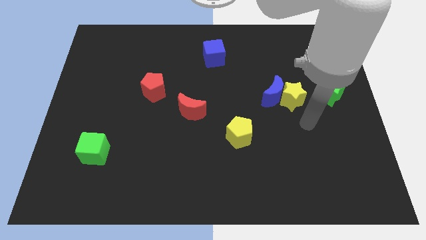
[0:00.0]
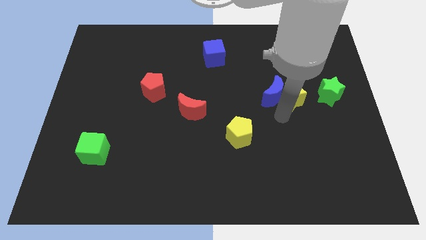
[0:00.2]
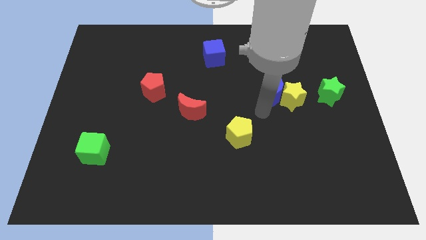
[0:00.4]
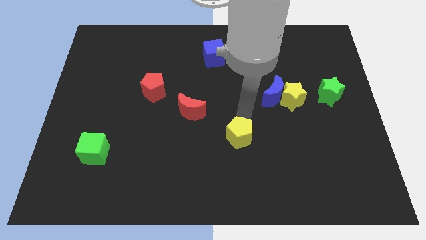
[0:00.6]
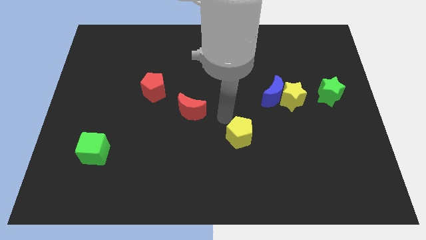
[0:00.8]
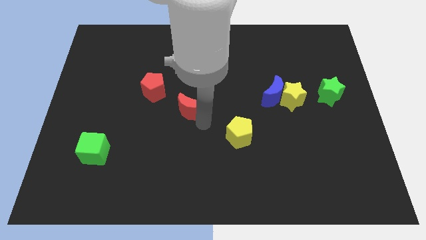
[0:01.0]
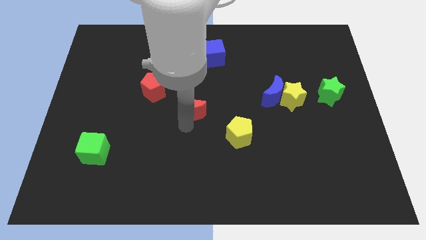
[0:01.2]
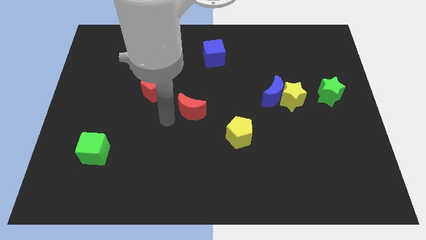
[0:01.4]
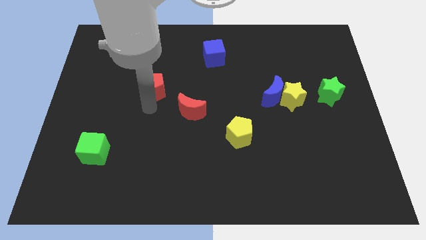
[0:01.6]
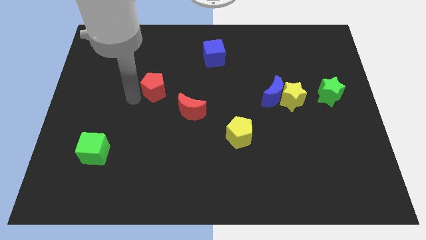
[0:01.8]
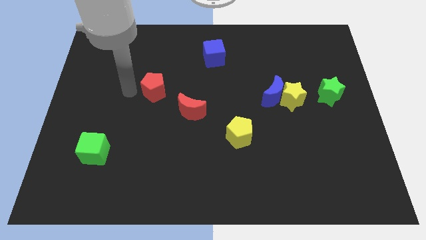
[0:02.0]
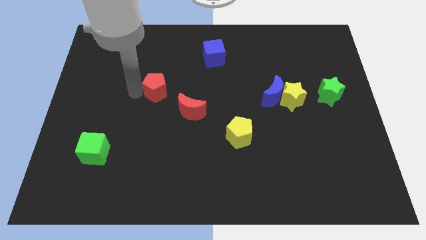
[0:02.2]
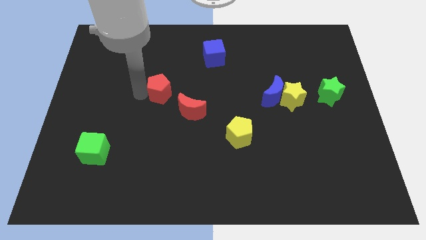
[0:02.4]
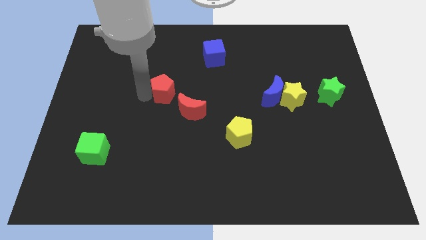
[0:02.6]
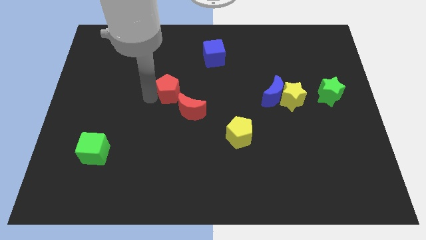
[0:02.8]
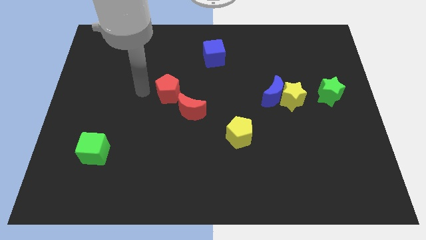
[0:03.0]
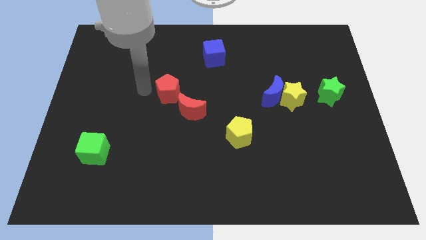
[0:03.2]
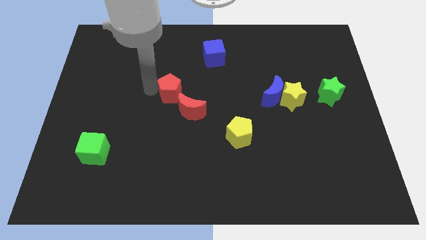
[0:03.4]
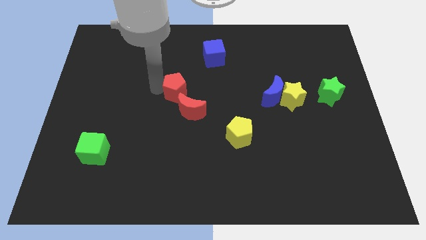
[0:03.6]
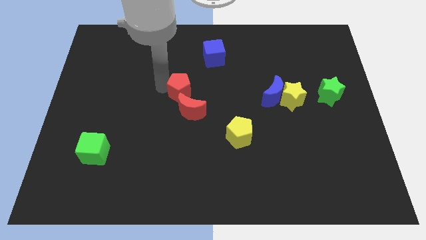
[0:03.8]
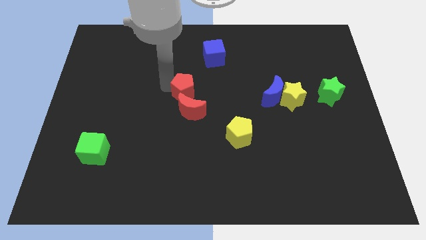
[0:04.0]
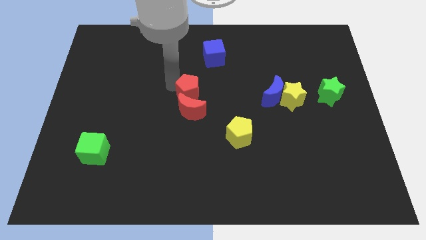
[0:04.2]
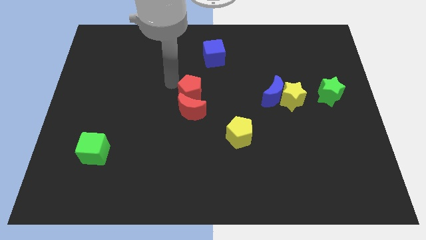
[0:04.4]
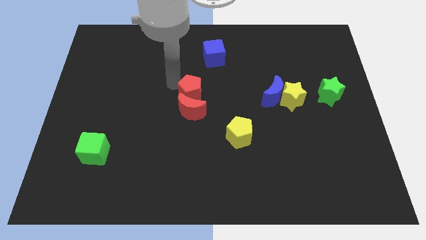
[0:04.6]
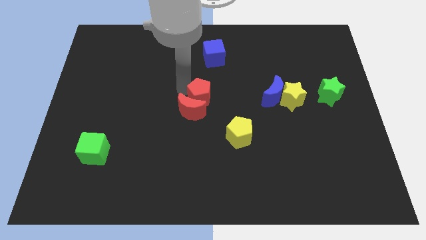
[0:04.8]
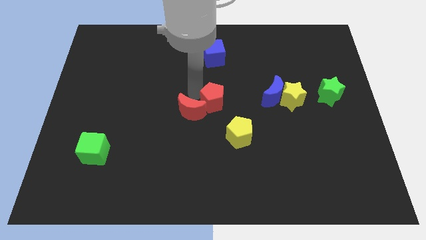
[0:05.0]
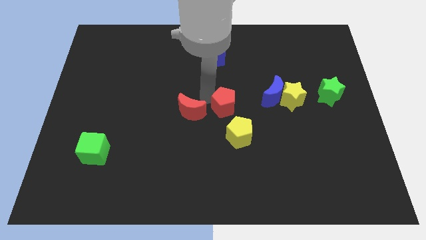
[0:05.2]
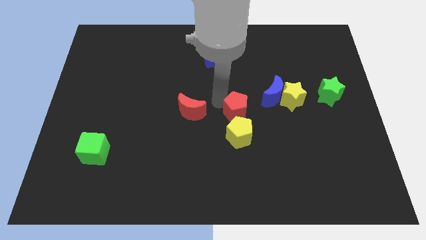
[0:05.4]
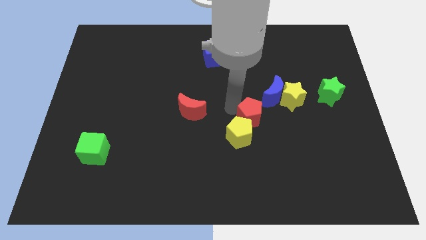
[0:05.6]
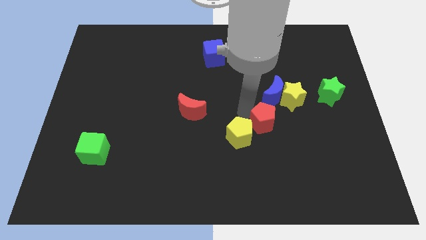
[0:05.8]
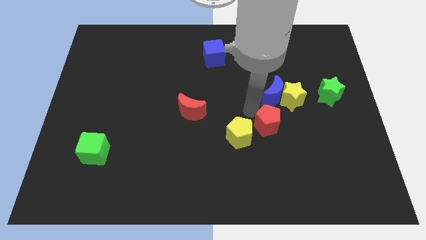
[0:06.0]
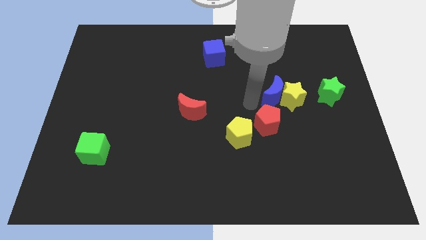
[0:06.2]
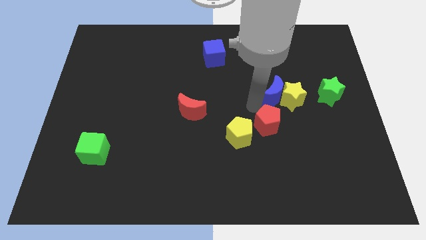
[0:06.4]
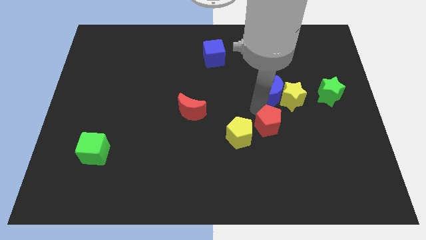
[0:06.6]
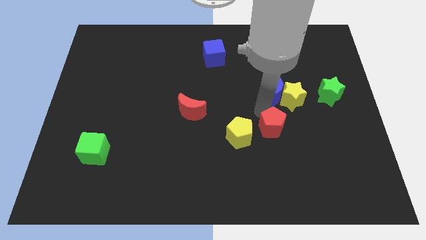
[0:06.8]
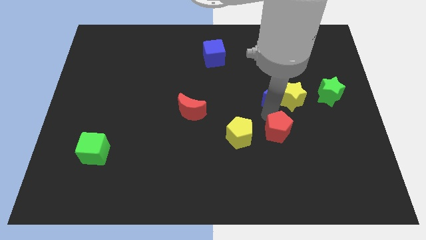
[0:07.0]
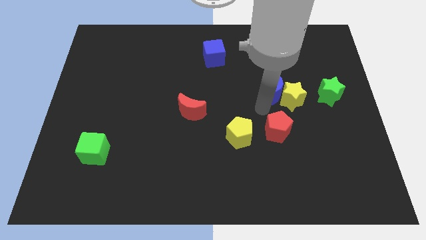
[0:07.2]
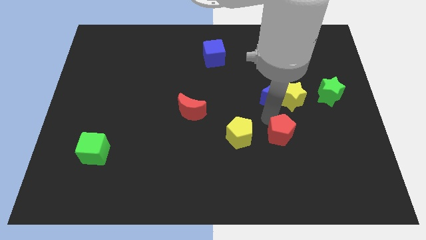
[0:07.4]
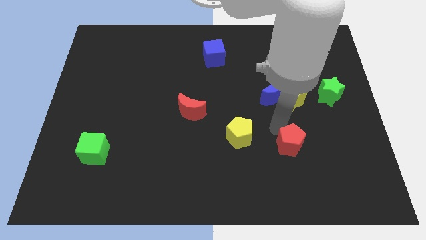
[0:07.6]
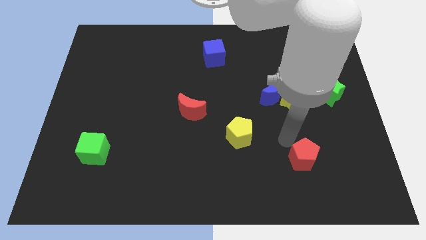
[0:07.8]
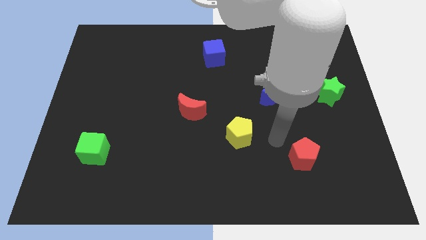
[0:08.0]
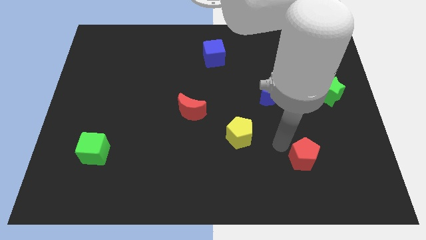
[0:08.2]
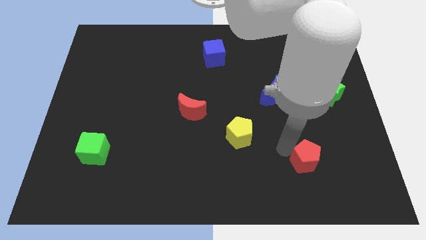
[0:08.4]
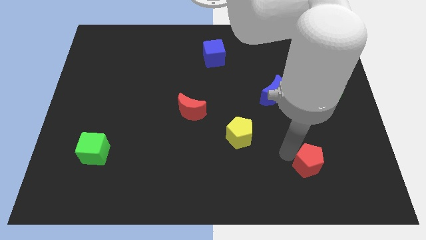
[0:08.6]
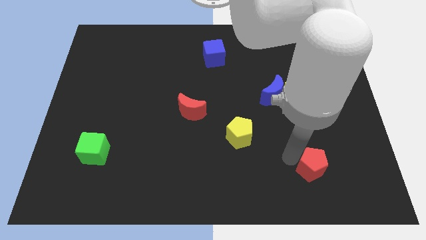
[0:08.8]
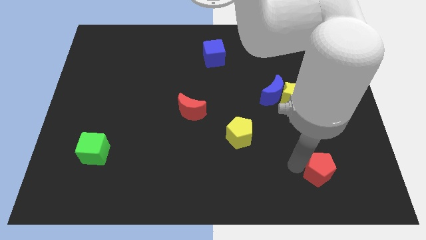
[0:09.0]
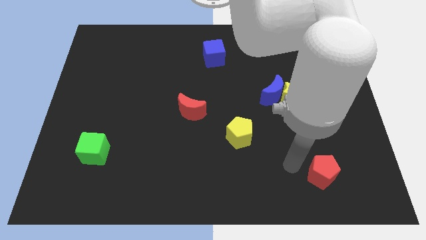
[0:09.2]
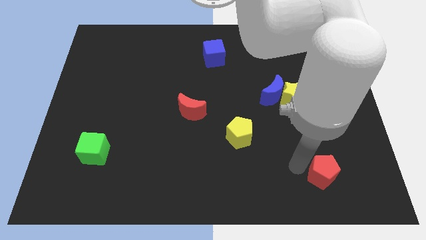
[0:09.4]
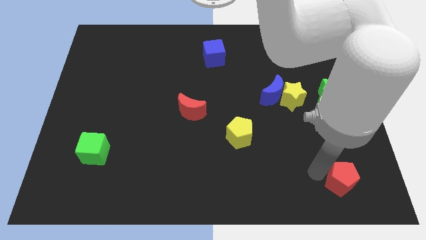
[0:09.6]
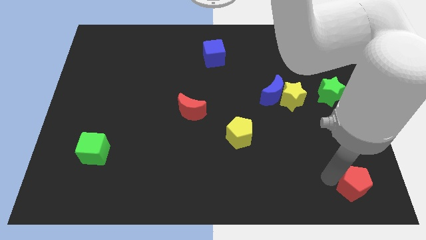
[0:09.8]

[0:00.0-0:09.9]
put the red pentagon to the lower right corner
